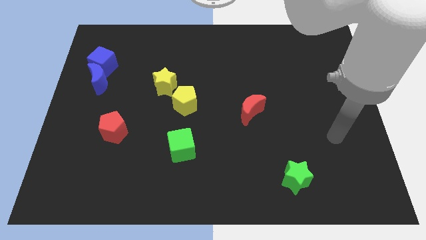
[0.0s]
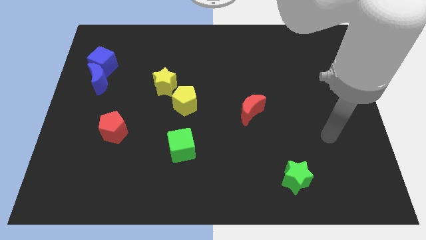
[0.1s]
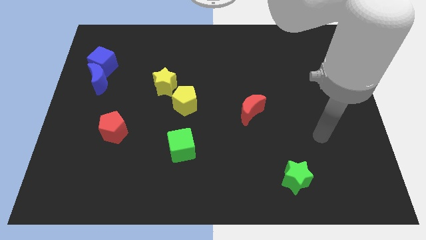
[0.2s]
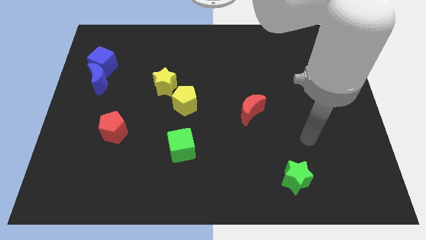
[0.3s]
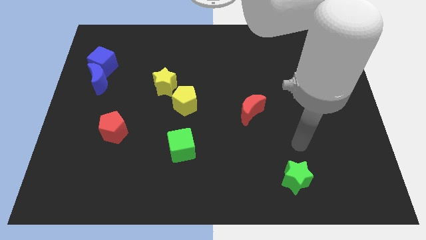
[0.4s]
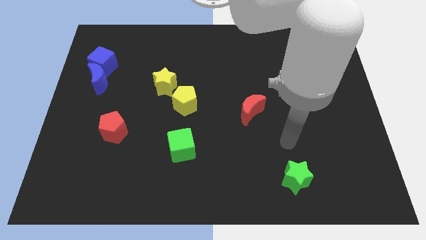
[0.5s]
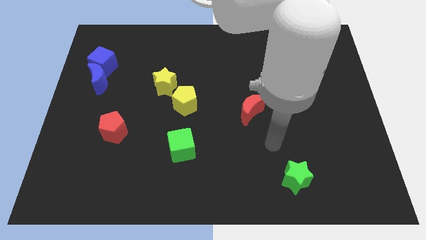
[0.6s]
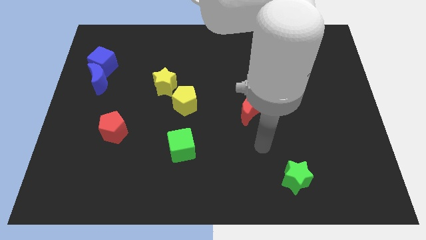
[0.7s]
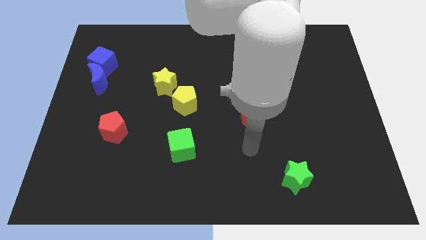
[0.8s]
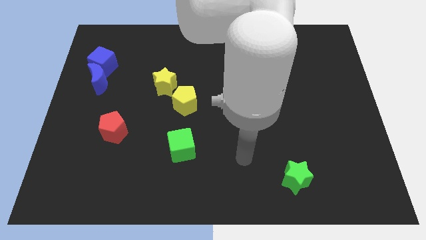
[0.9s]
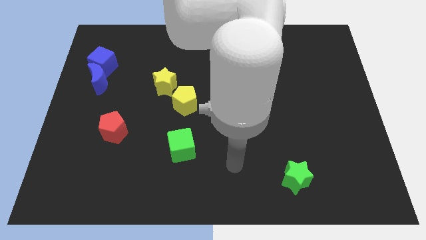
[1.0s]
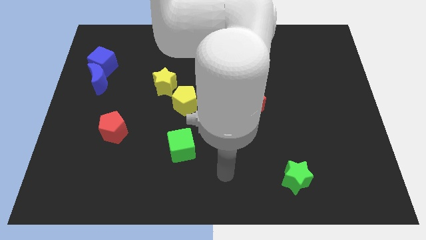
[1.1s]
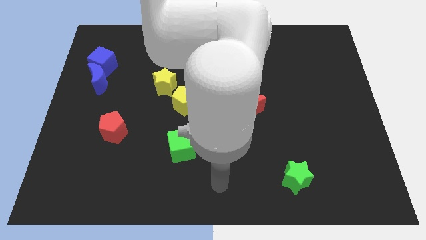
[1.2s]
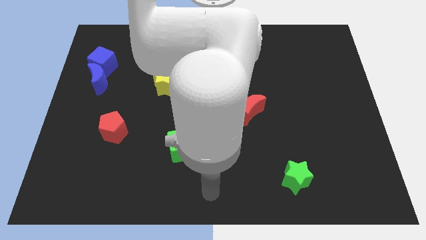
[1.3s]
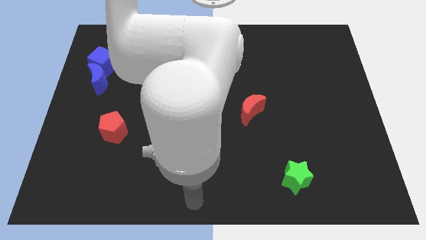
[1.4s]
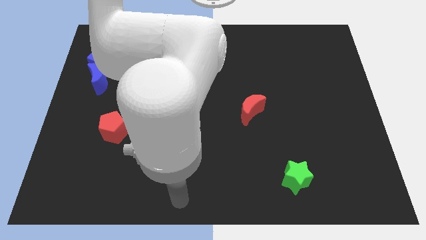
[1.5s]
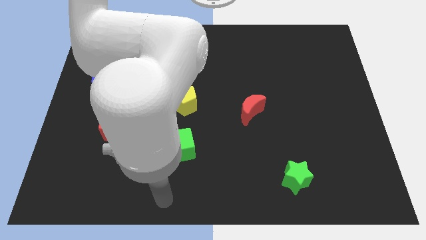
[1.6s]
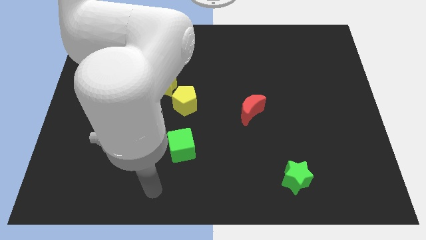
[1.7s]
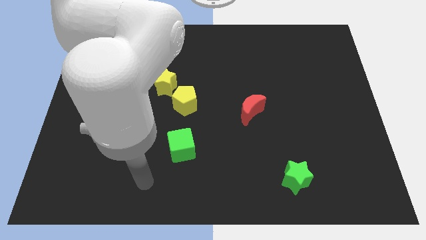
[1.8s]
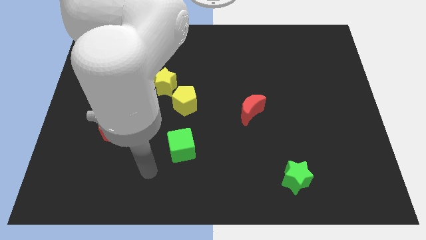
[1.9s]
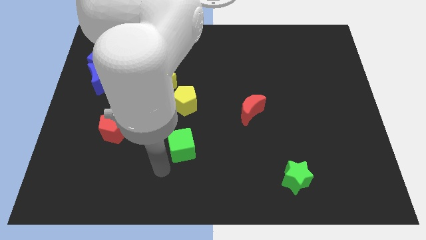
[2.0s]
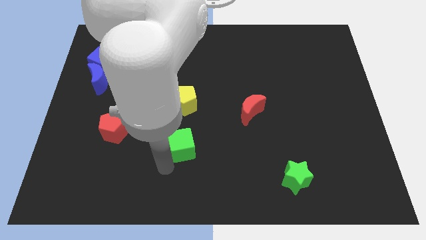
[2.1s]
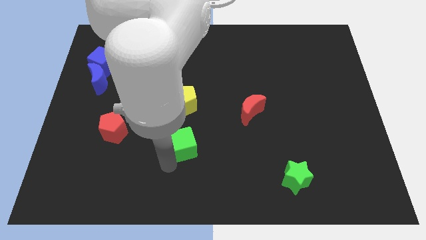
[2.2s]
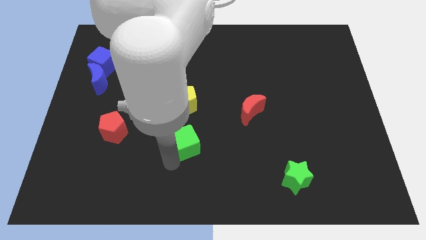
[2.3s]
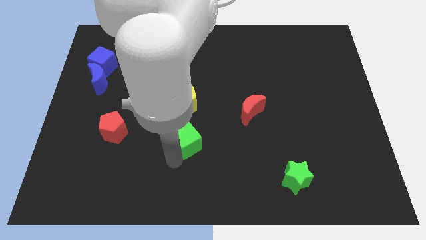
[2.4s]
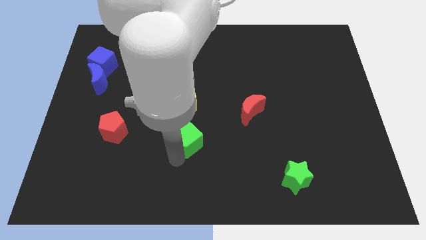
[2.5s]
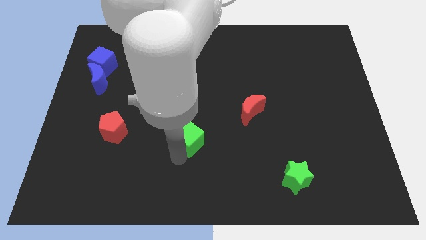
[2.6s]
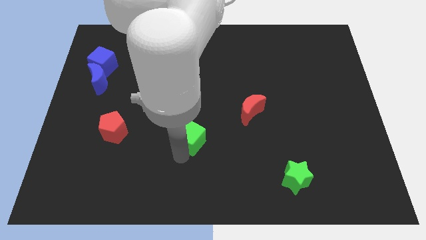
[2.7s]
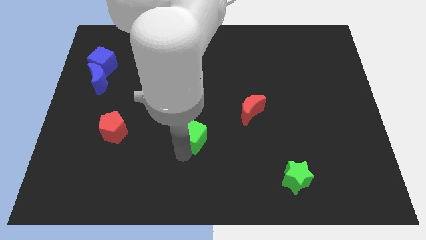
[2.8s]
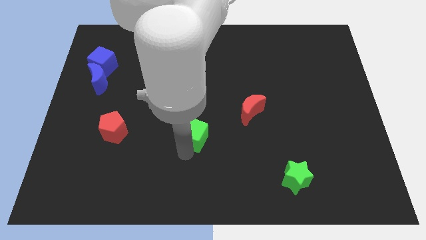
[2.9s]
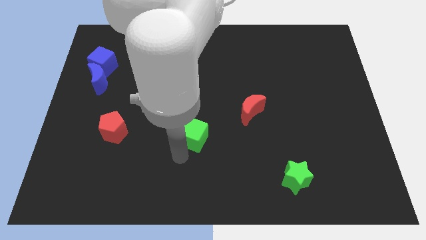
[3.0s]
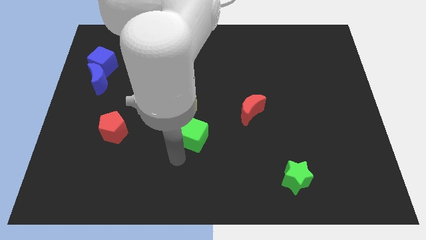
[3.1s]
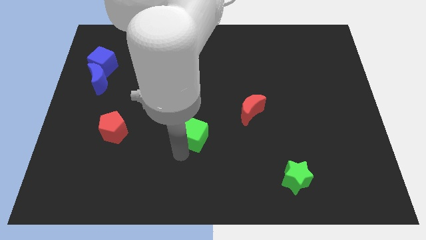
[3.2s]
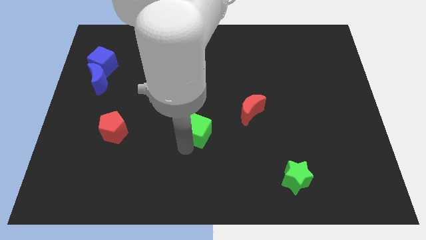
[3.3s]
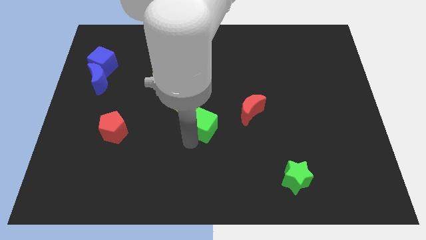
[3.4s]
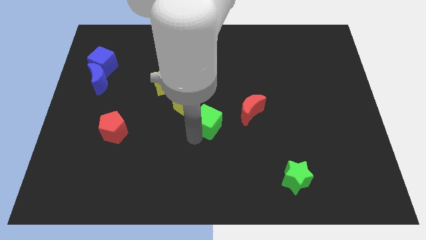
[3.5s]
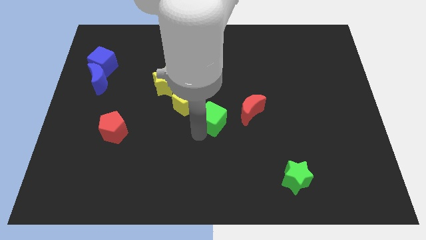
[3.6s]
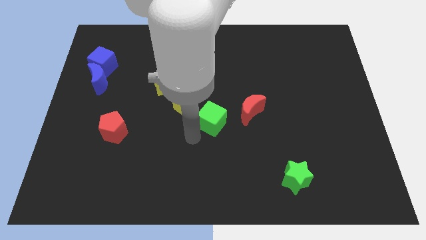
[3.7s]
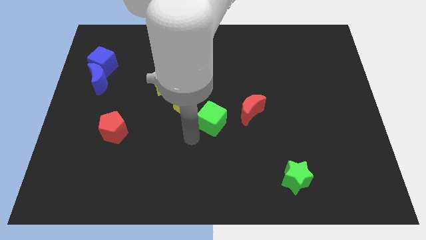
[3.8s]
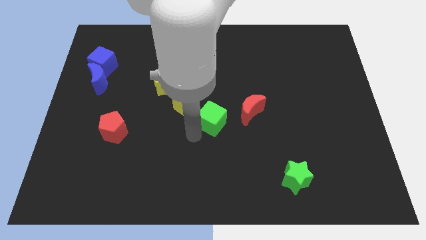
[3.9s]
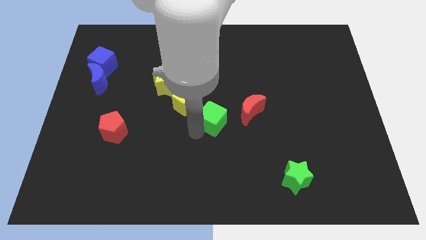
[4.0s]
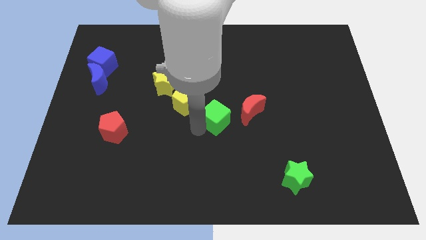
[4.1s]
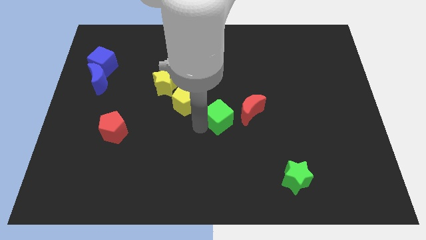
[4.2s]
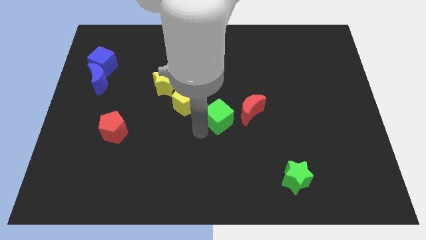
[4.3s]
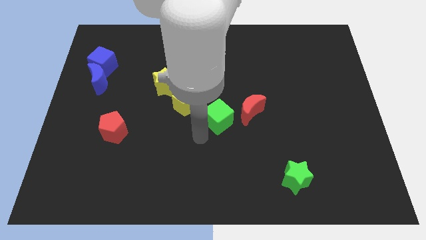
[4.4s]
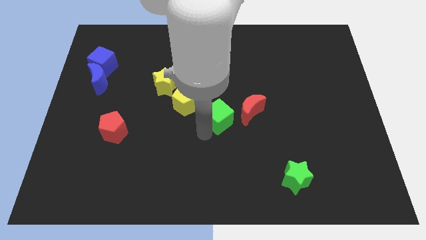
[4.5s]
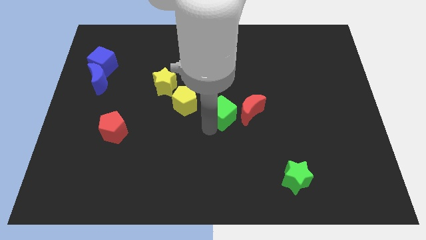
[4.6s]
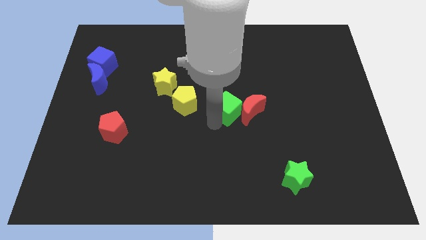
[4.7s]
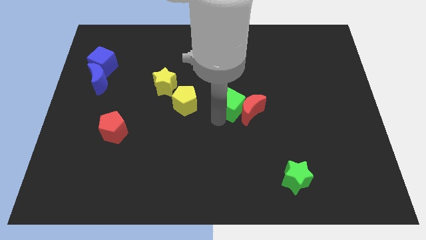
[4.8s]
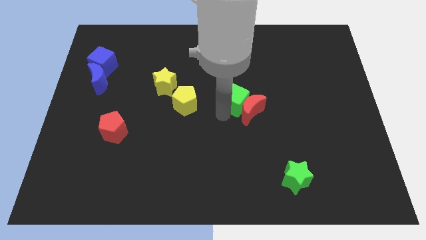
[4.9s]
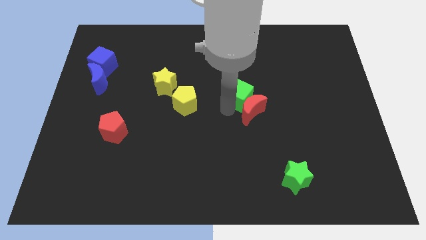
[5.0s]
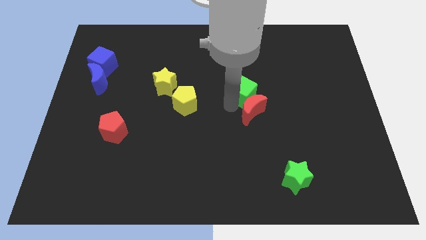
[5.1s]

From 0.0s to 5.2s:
move the green cube upwards and right

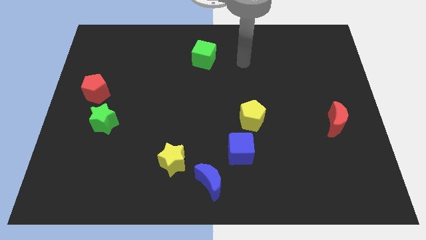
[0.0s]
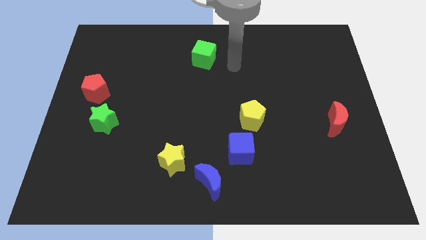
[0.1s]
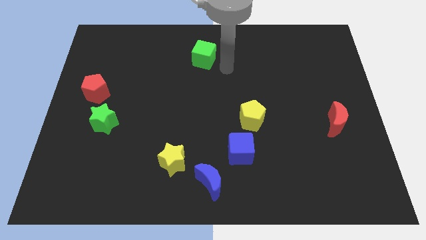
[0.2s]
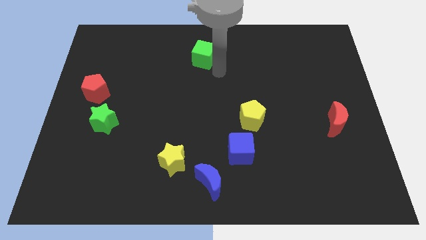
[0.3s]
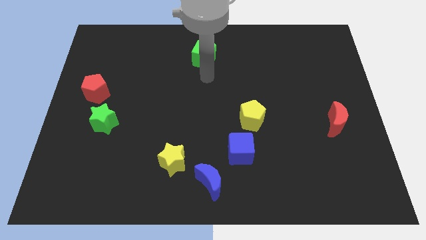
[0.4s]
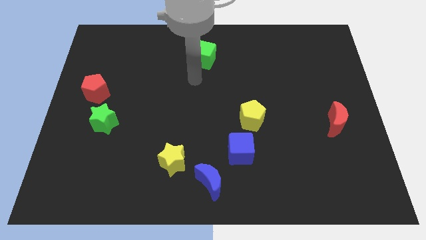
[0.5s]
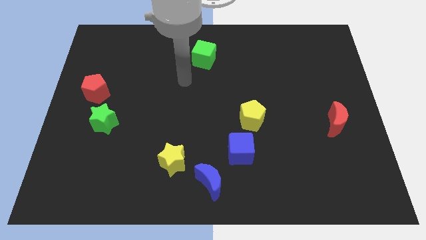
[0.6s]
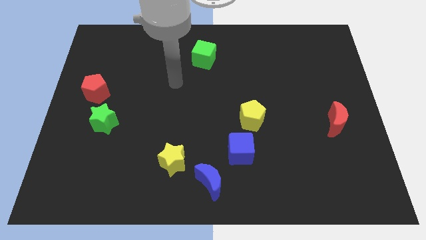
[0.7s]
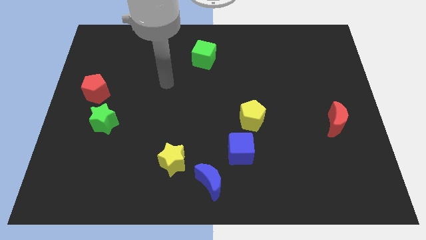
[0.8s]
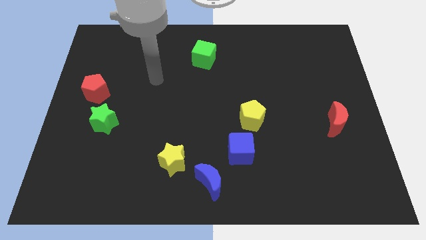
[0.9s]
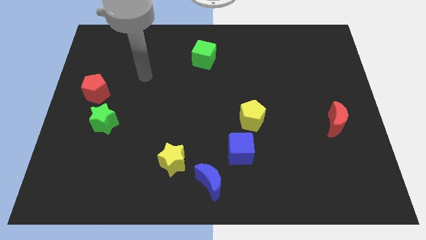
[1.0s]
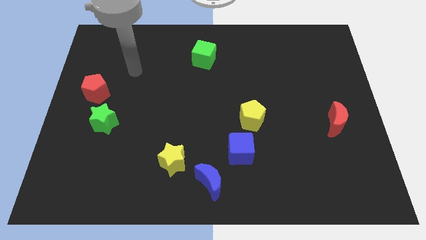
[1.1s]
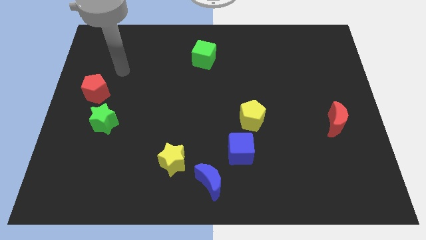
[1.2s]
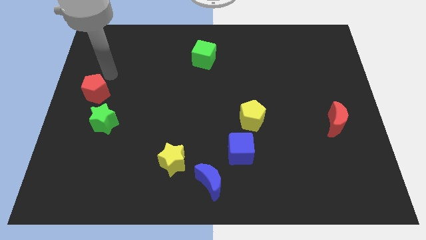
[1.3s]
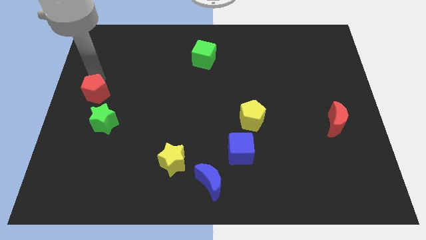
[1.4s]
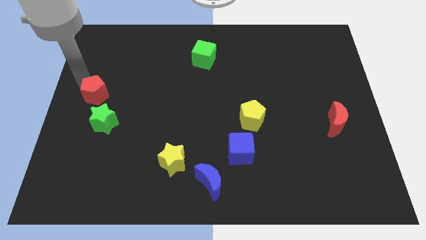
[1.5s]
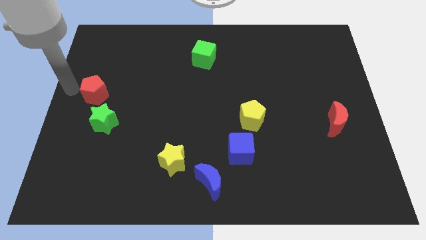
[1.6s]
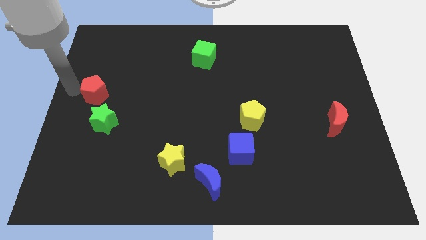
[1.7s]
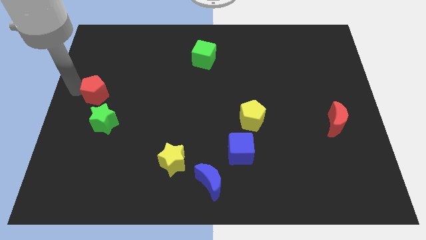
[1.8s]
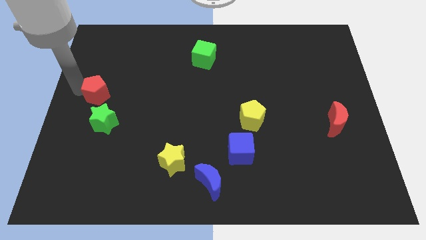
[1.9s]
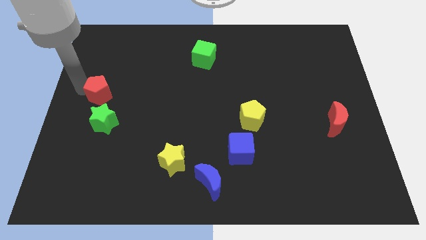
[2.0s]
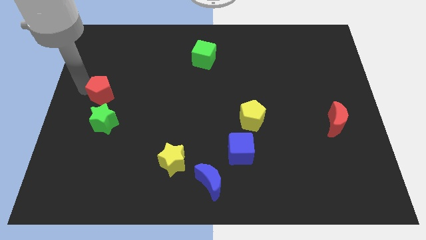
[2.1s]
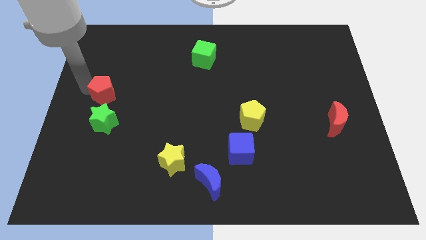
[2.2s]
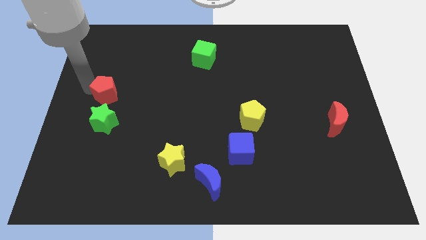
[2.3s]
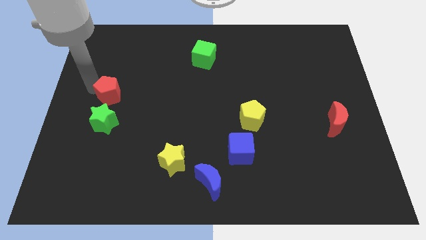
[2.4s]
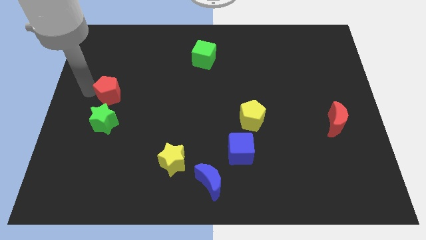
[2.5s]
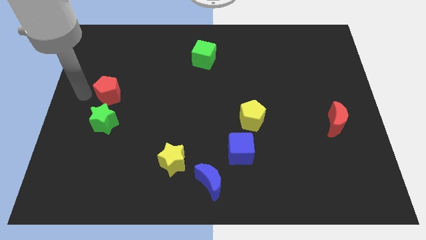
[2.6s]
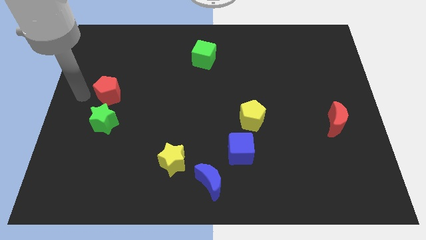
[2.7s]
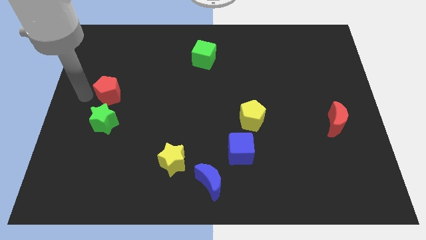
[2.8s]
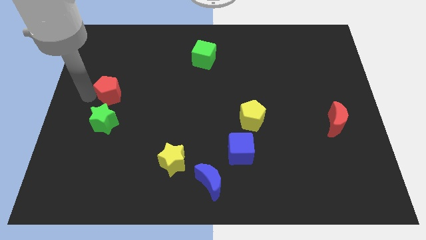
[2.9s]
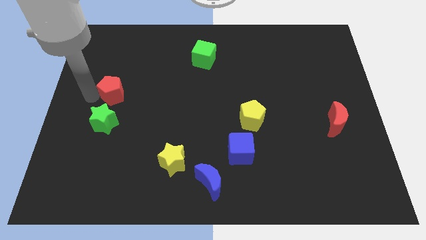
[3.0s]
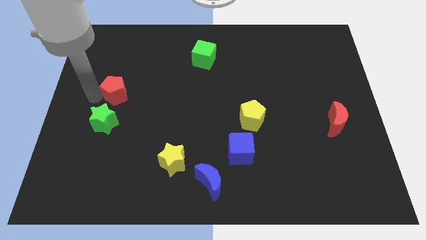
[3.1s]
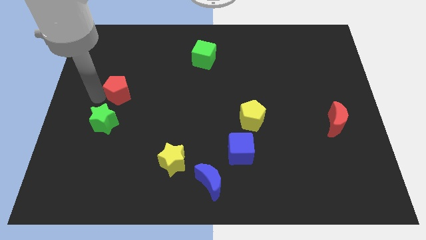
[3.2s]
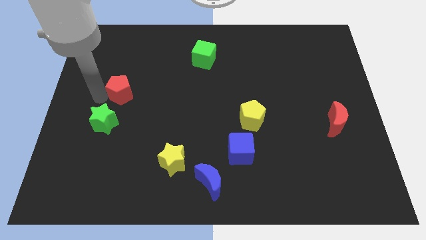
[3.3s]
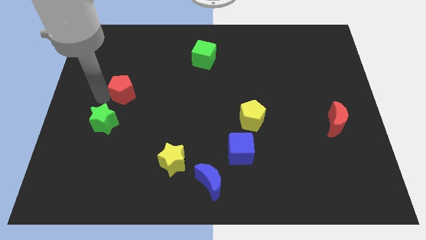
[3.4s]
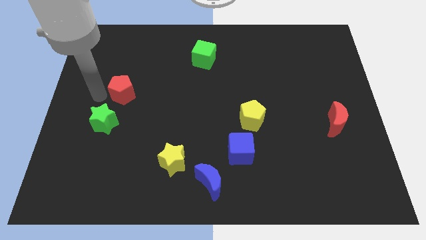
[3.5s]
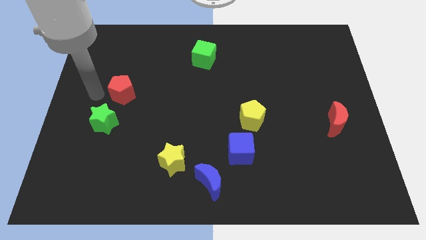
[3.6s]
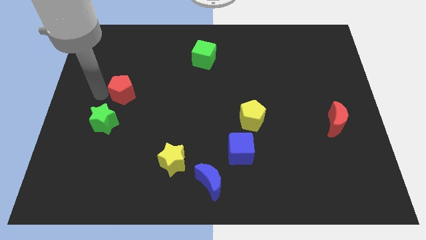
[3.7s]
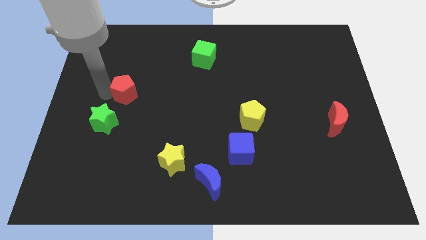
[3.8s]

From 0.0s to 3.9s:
slightly move the red pentagon to the right
